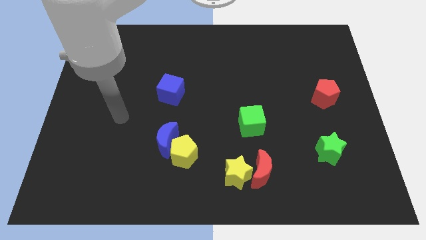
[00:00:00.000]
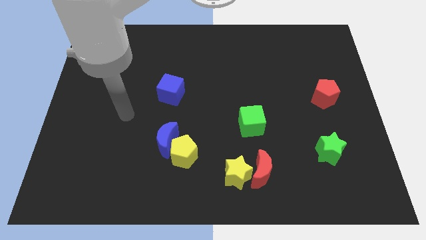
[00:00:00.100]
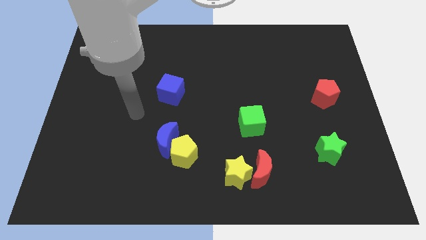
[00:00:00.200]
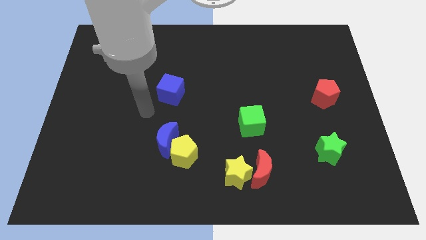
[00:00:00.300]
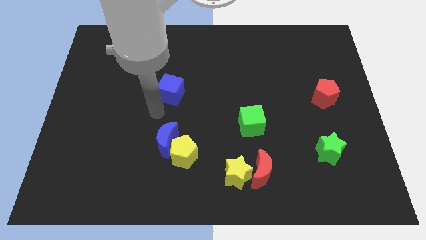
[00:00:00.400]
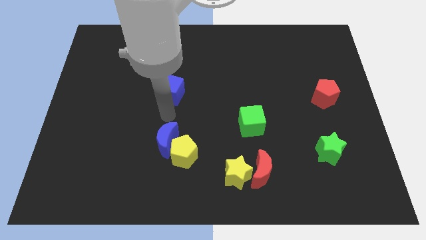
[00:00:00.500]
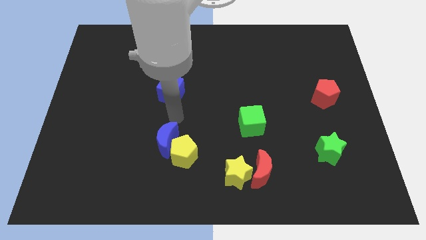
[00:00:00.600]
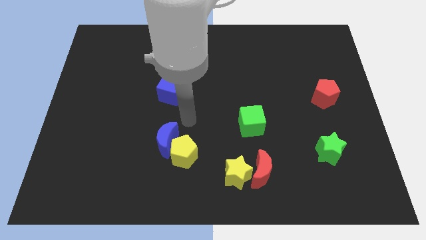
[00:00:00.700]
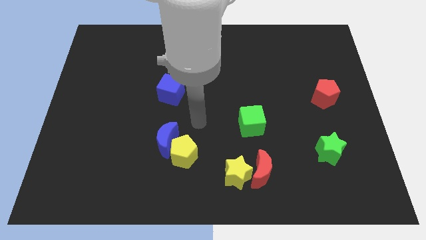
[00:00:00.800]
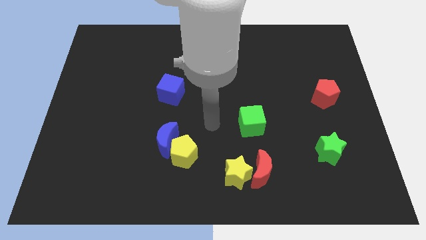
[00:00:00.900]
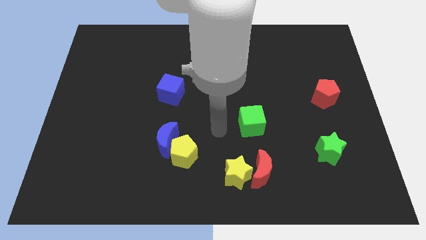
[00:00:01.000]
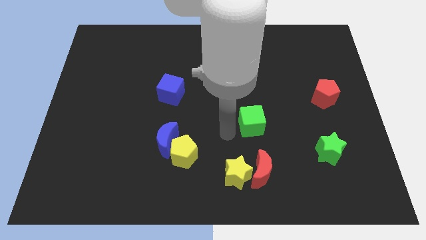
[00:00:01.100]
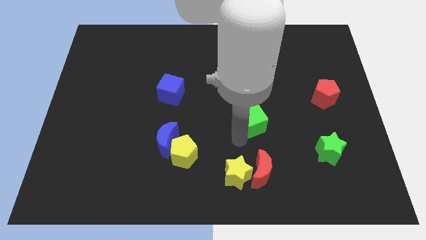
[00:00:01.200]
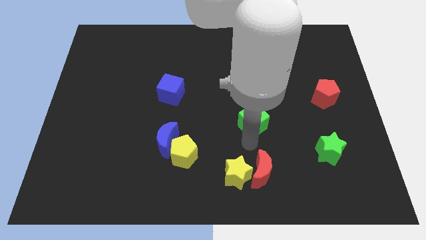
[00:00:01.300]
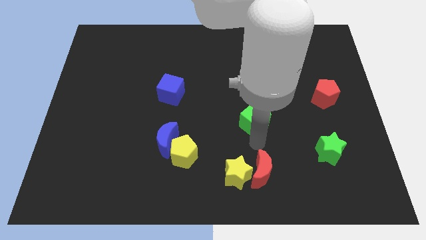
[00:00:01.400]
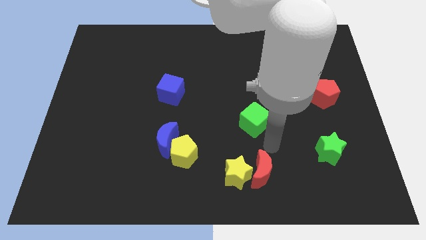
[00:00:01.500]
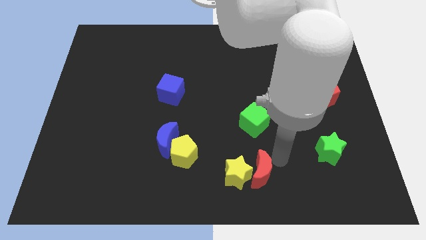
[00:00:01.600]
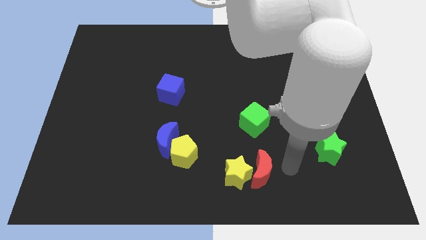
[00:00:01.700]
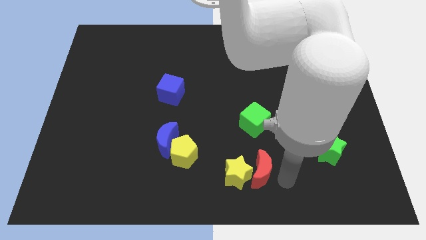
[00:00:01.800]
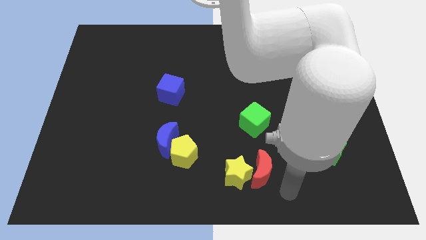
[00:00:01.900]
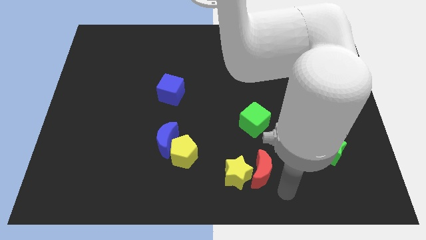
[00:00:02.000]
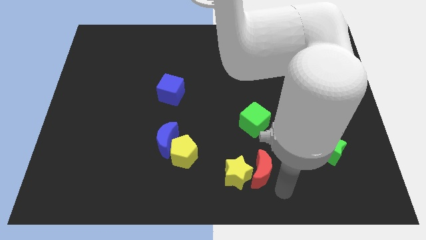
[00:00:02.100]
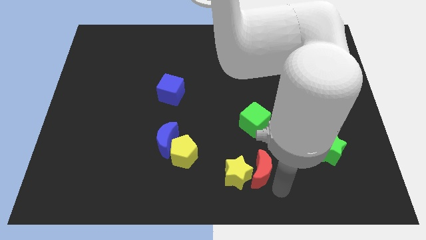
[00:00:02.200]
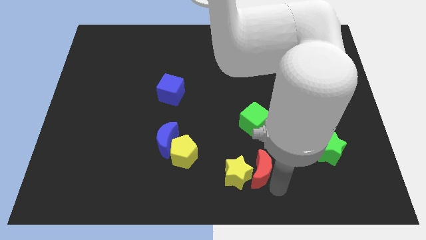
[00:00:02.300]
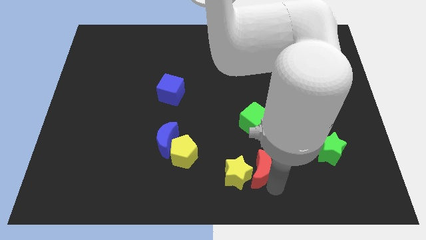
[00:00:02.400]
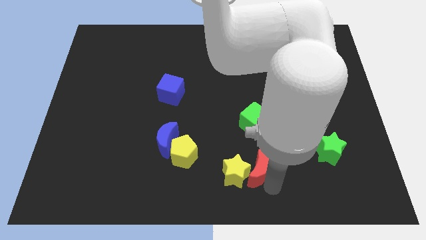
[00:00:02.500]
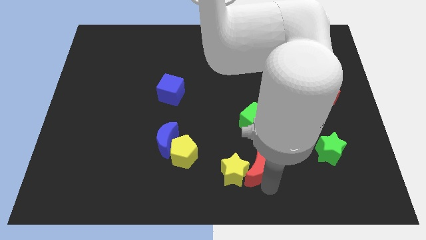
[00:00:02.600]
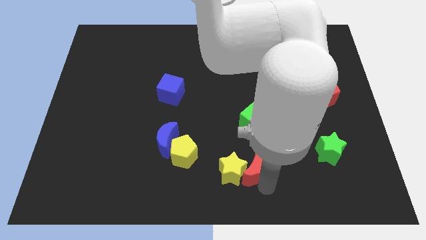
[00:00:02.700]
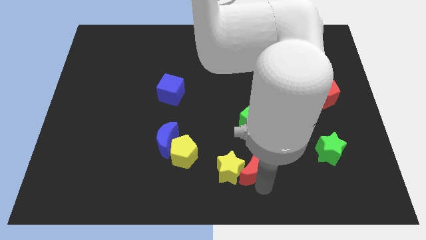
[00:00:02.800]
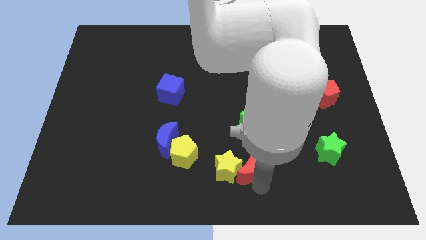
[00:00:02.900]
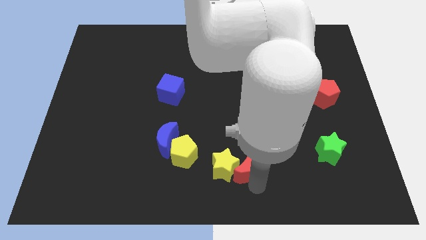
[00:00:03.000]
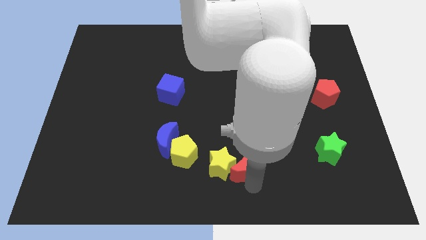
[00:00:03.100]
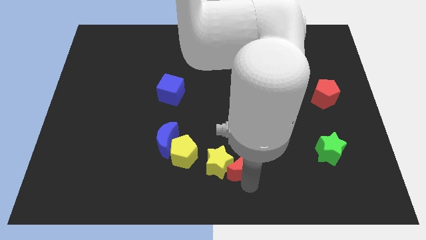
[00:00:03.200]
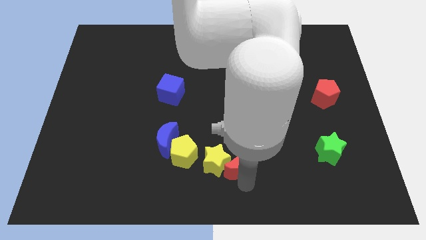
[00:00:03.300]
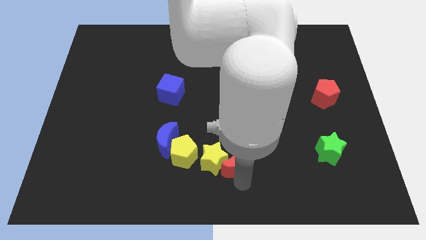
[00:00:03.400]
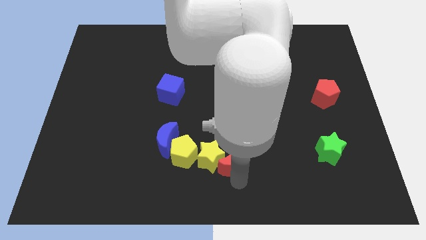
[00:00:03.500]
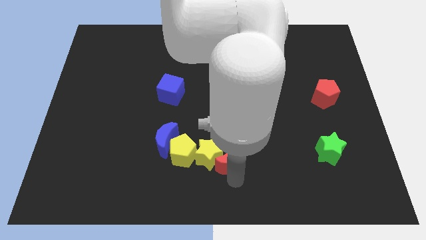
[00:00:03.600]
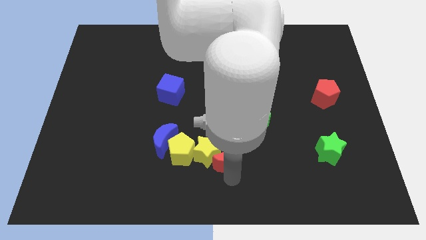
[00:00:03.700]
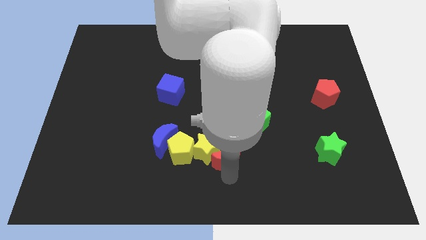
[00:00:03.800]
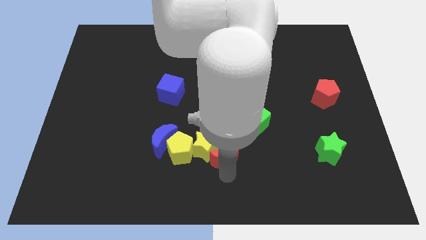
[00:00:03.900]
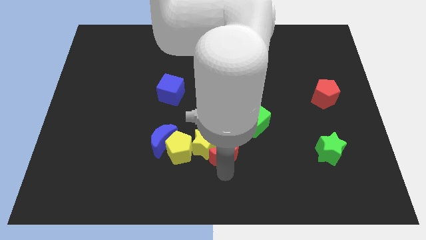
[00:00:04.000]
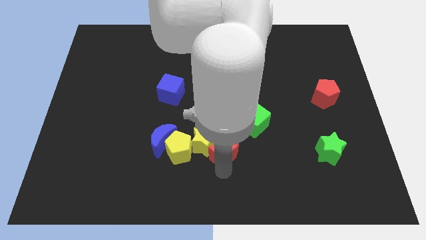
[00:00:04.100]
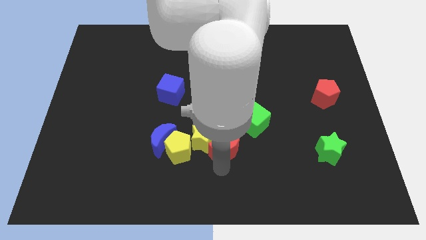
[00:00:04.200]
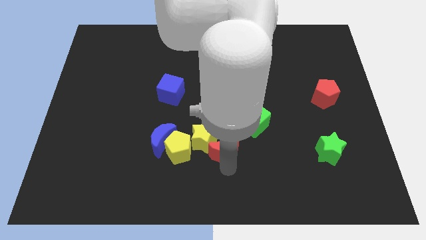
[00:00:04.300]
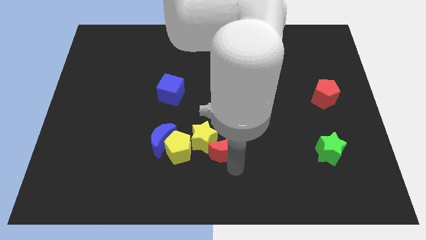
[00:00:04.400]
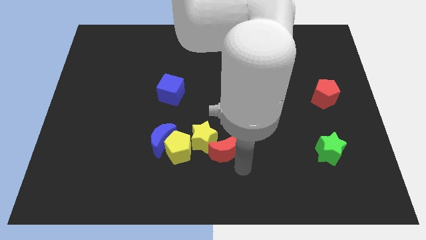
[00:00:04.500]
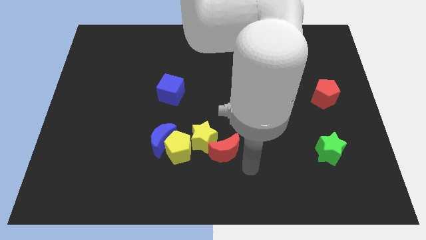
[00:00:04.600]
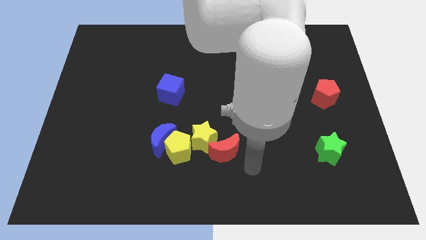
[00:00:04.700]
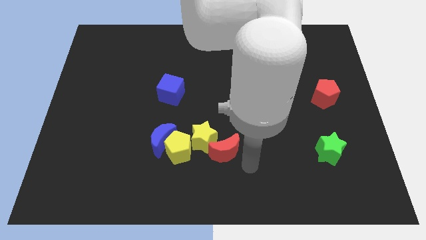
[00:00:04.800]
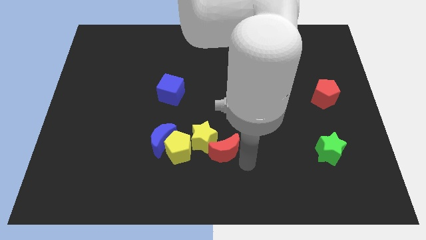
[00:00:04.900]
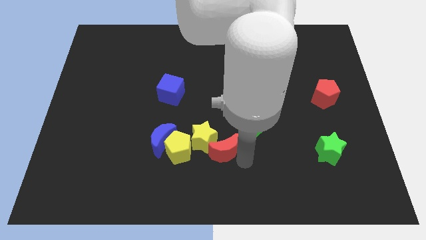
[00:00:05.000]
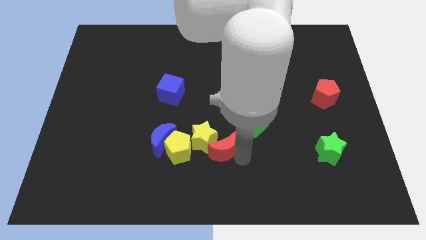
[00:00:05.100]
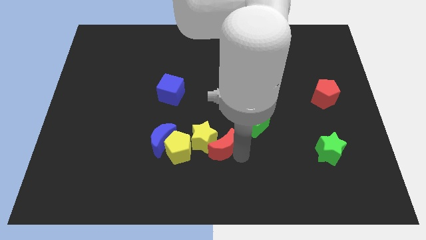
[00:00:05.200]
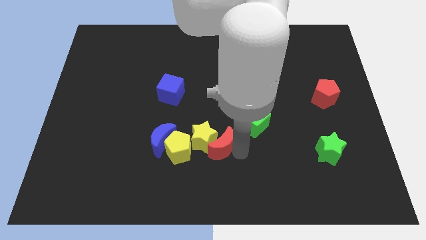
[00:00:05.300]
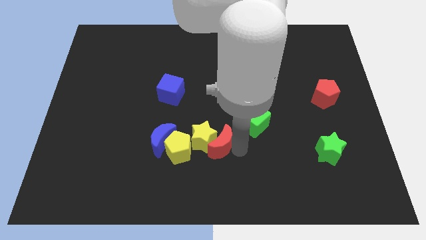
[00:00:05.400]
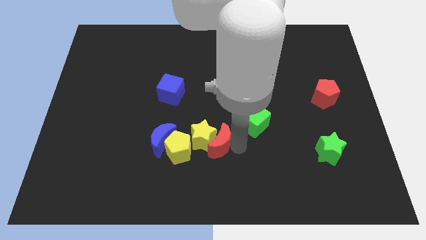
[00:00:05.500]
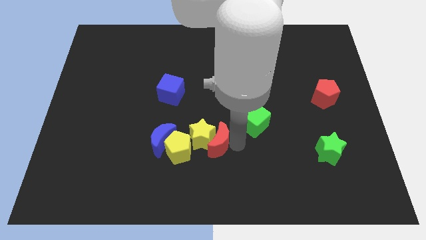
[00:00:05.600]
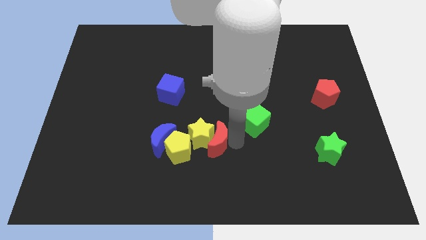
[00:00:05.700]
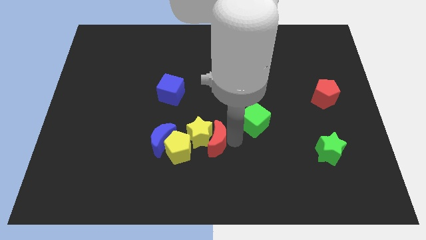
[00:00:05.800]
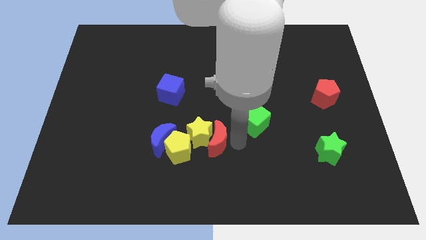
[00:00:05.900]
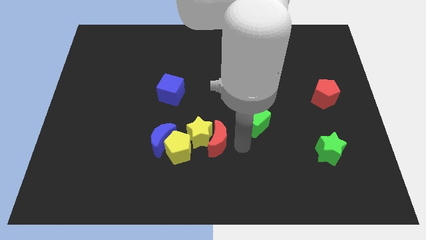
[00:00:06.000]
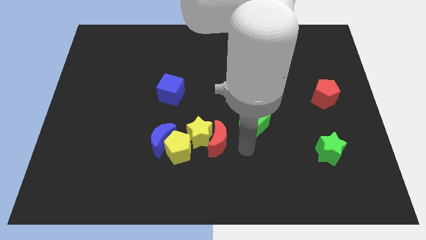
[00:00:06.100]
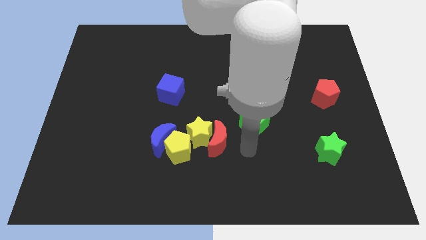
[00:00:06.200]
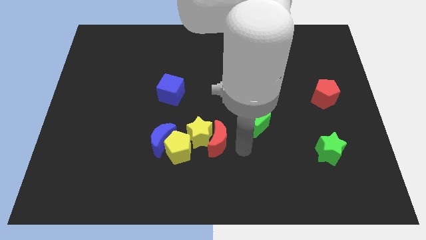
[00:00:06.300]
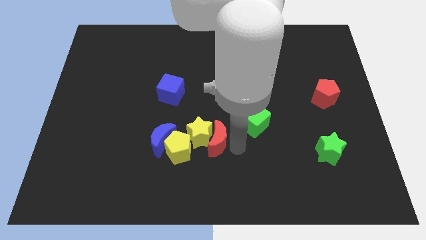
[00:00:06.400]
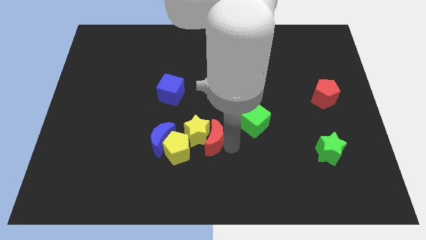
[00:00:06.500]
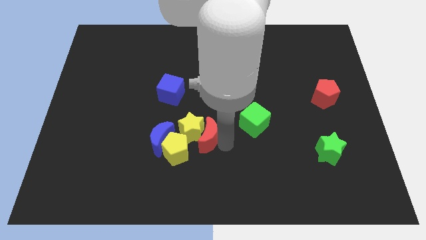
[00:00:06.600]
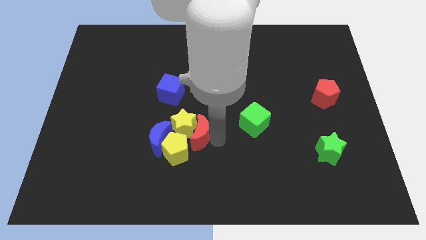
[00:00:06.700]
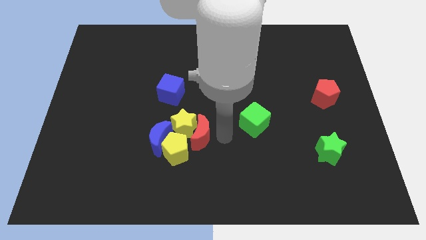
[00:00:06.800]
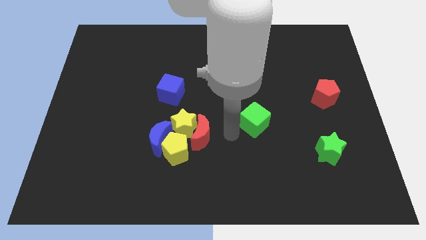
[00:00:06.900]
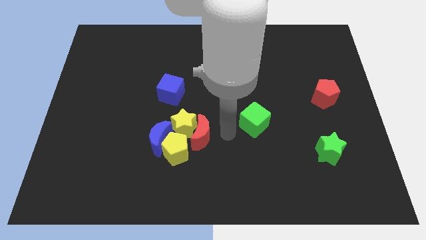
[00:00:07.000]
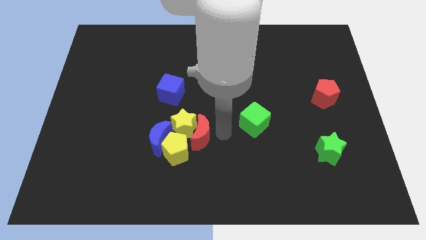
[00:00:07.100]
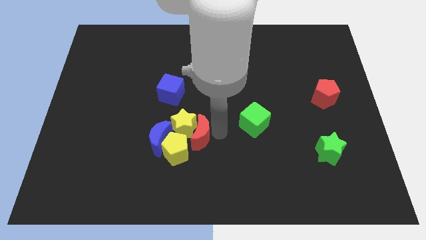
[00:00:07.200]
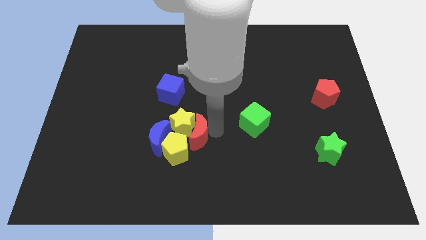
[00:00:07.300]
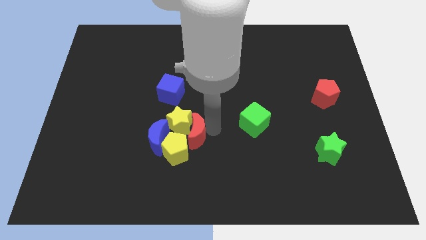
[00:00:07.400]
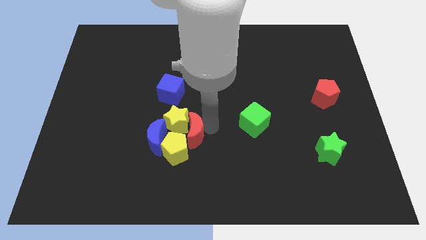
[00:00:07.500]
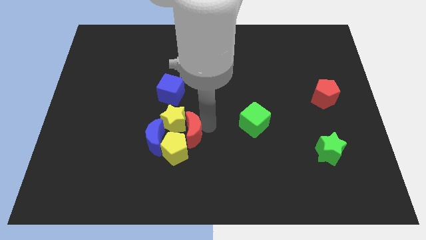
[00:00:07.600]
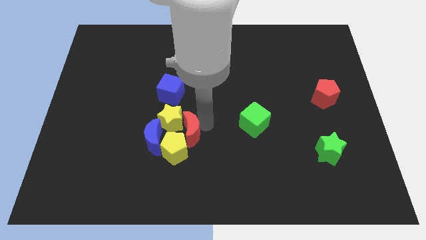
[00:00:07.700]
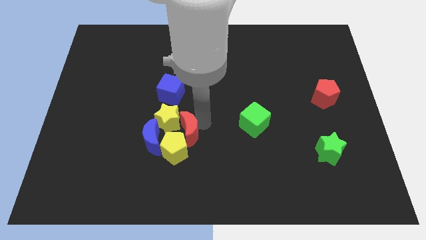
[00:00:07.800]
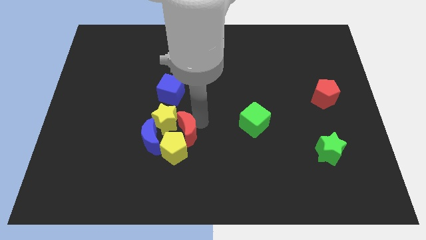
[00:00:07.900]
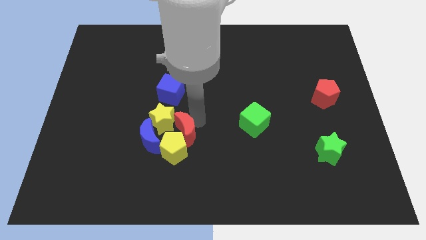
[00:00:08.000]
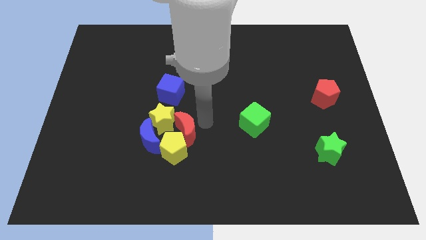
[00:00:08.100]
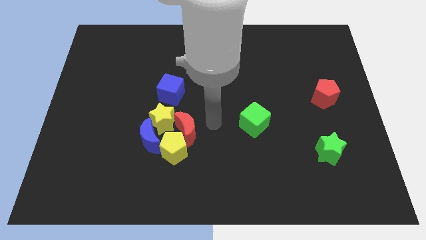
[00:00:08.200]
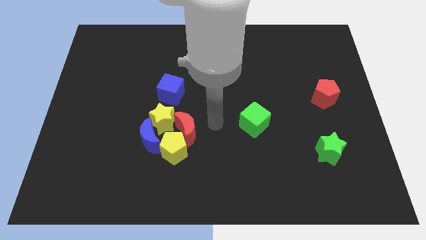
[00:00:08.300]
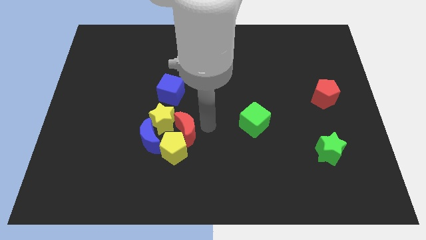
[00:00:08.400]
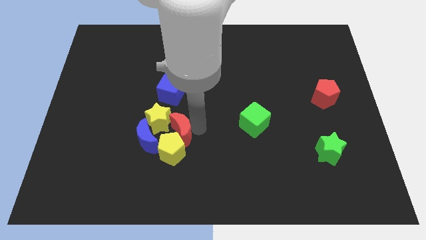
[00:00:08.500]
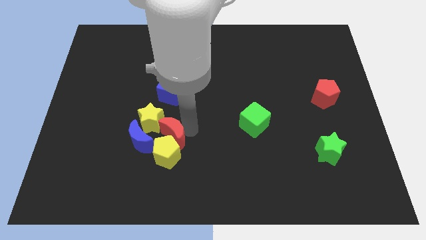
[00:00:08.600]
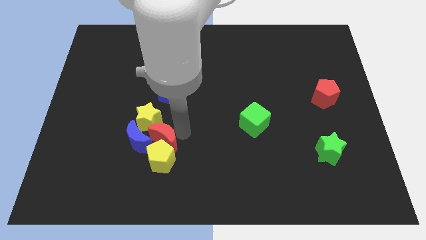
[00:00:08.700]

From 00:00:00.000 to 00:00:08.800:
put the red moon next to the blue moon
